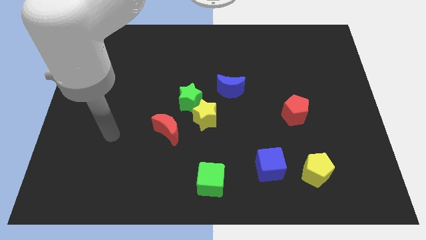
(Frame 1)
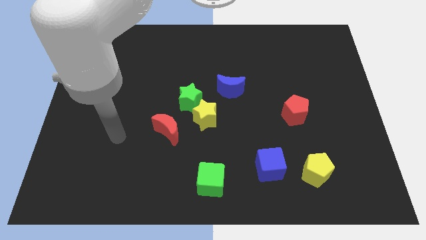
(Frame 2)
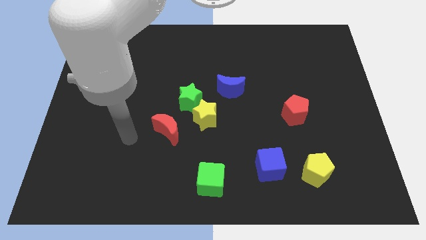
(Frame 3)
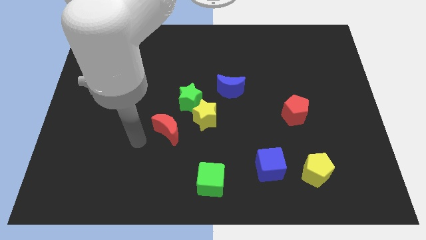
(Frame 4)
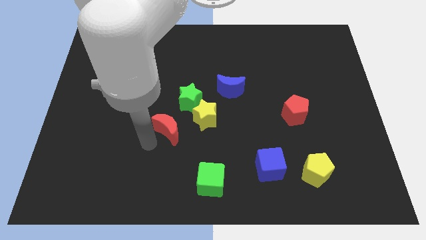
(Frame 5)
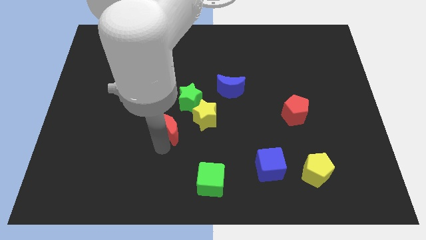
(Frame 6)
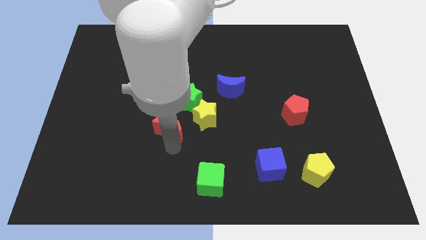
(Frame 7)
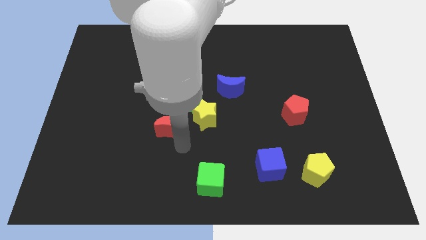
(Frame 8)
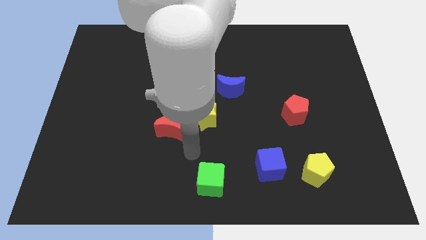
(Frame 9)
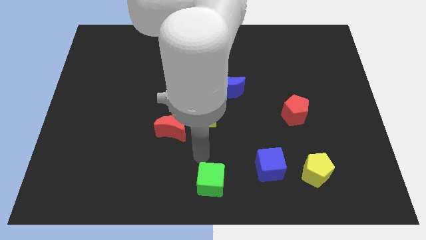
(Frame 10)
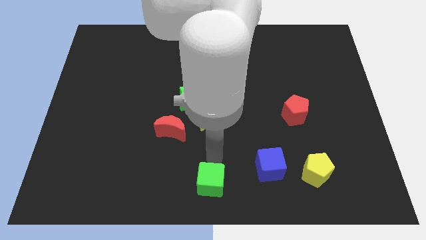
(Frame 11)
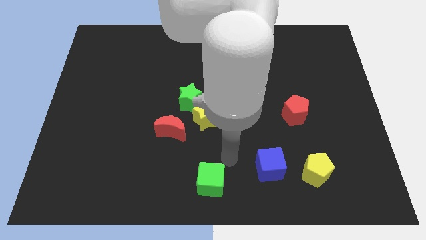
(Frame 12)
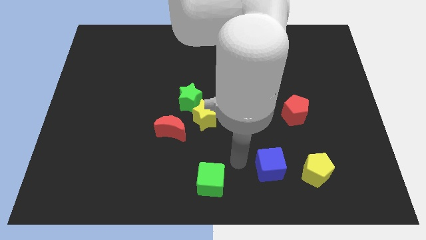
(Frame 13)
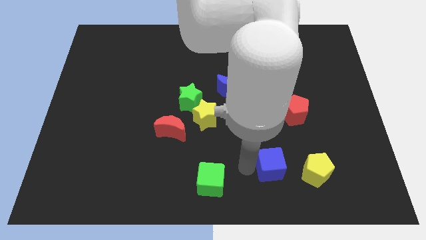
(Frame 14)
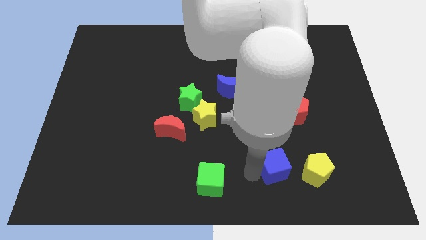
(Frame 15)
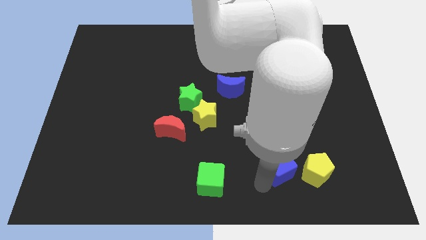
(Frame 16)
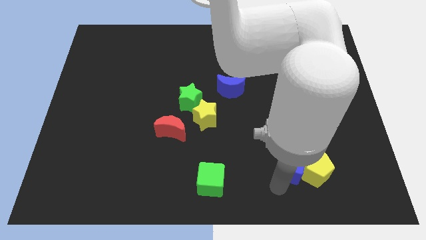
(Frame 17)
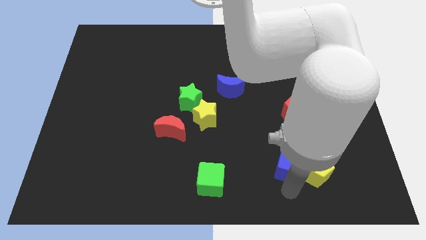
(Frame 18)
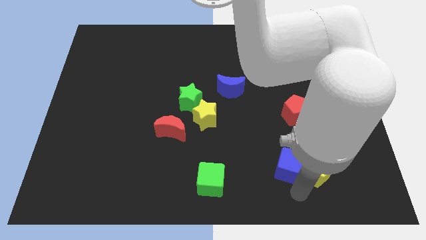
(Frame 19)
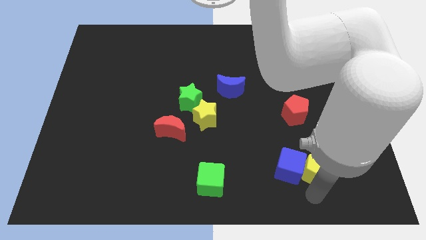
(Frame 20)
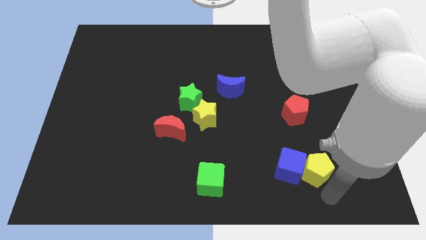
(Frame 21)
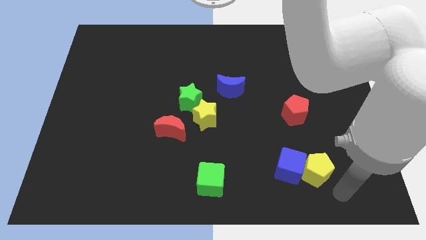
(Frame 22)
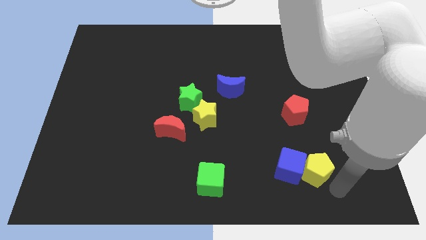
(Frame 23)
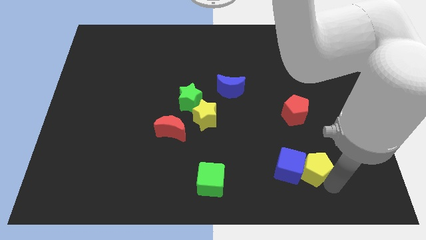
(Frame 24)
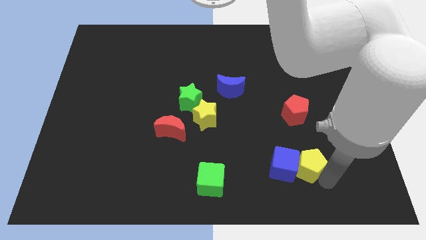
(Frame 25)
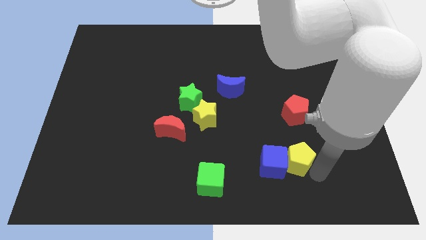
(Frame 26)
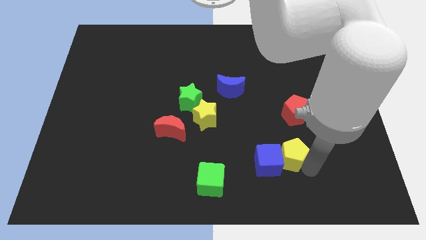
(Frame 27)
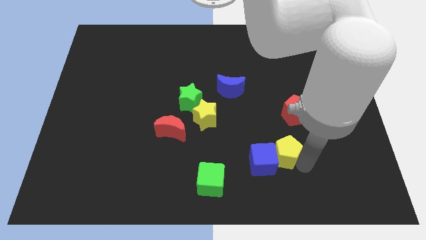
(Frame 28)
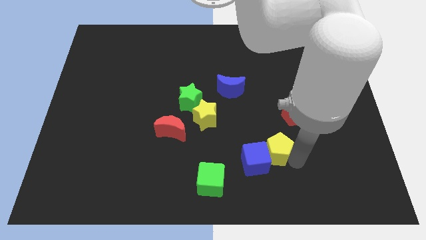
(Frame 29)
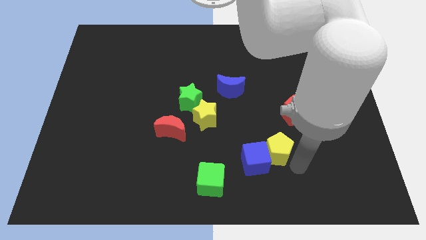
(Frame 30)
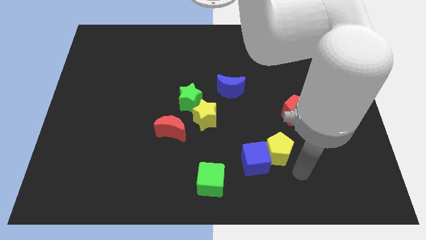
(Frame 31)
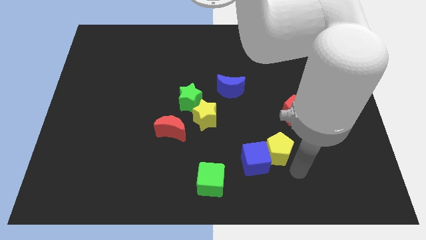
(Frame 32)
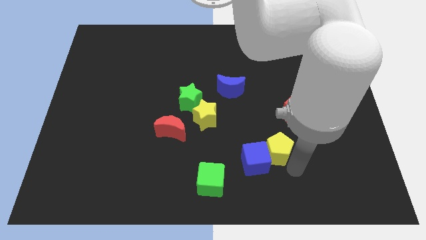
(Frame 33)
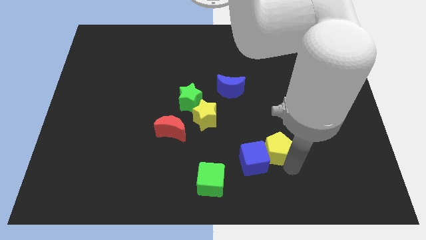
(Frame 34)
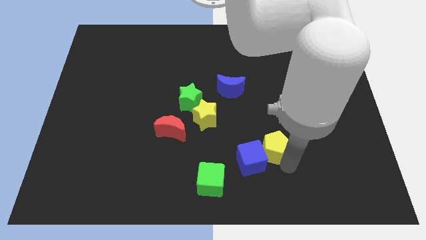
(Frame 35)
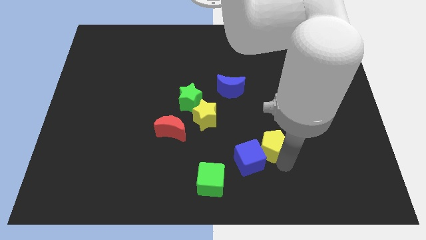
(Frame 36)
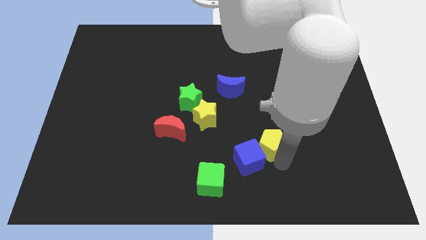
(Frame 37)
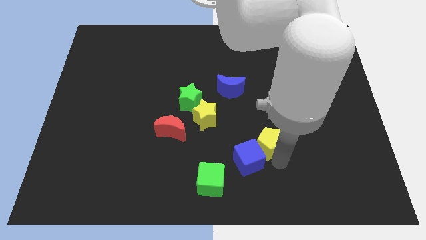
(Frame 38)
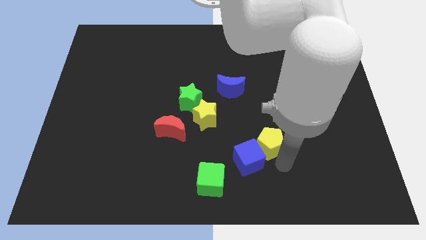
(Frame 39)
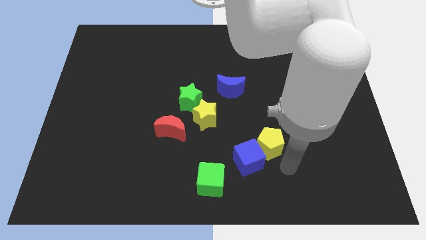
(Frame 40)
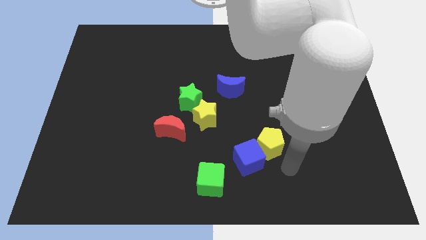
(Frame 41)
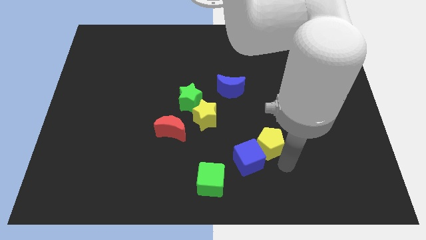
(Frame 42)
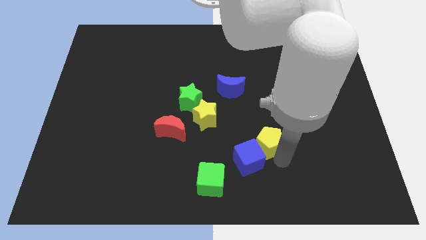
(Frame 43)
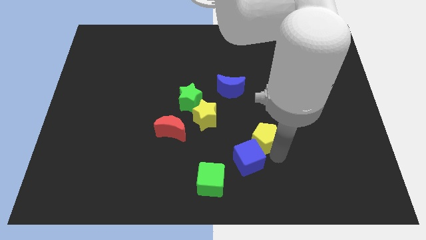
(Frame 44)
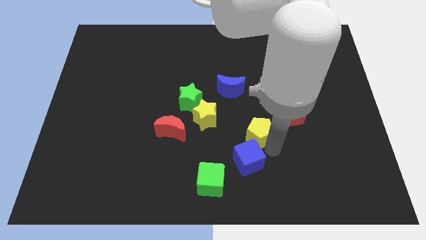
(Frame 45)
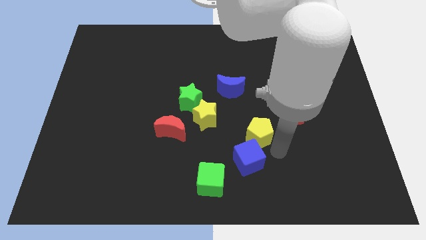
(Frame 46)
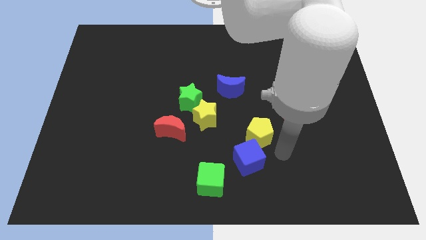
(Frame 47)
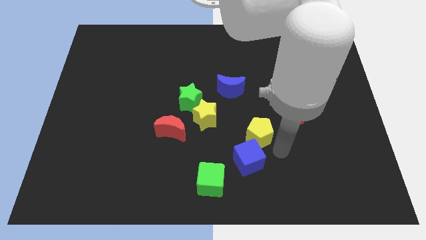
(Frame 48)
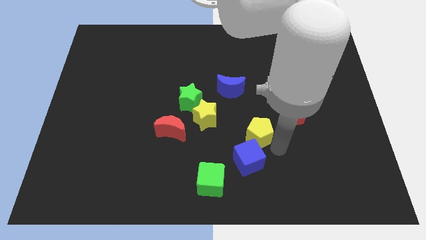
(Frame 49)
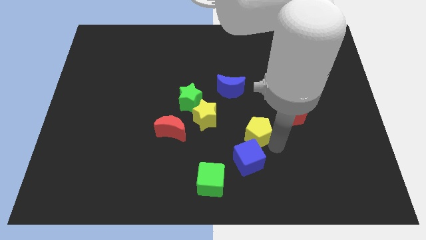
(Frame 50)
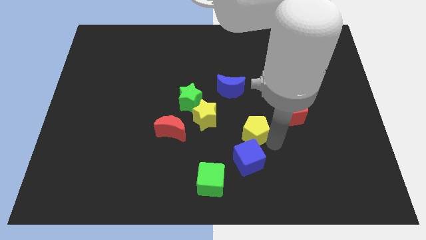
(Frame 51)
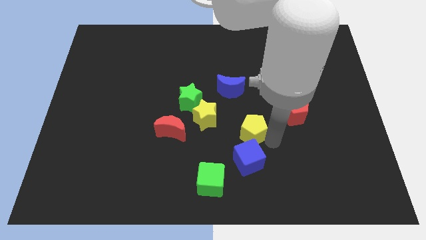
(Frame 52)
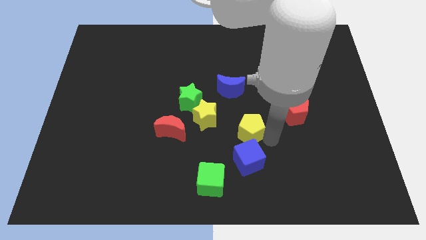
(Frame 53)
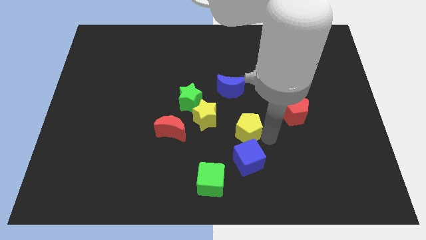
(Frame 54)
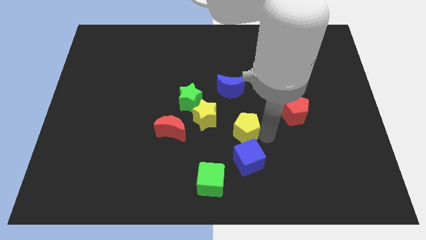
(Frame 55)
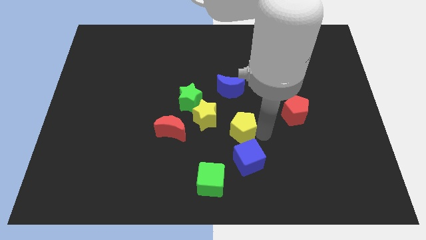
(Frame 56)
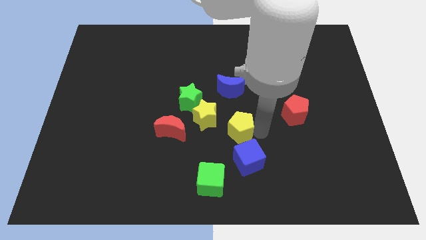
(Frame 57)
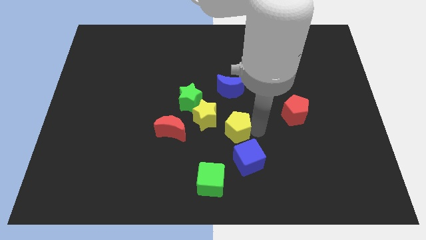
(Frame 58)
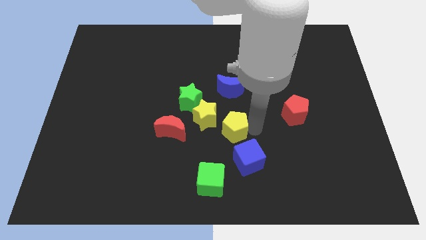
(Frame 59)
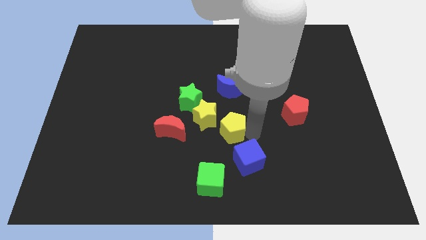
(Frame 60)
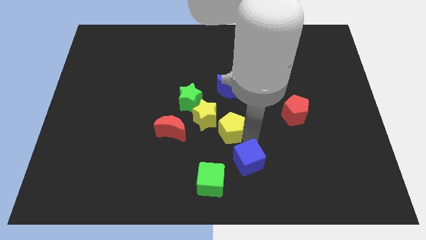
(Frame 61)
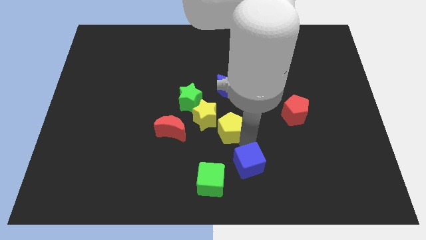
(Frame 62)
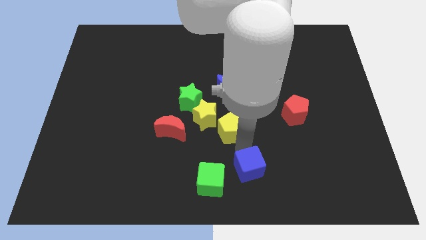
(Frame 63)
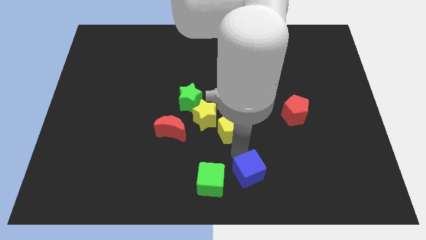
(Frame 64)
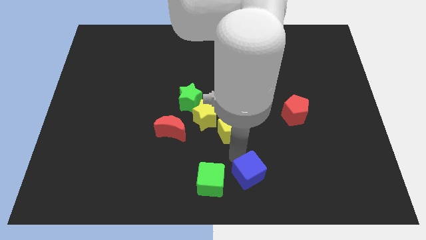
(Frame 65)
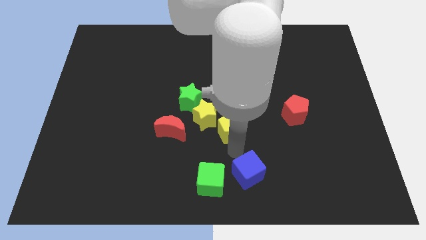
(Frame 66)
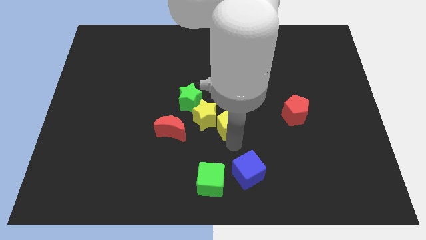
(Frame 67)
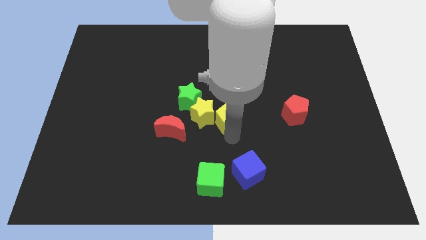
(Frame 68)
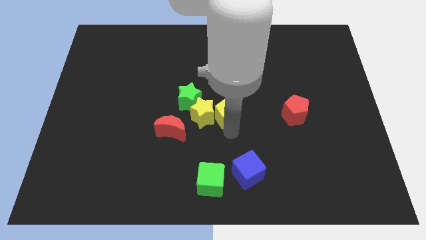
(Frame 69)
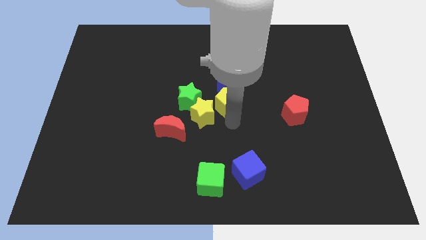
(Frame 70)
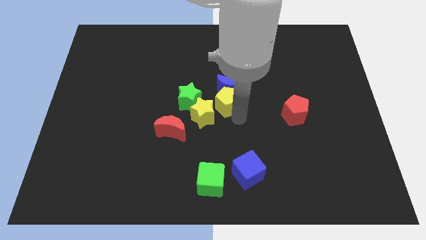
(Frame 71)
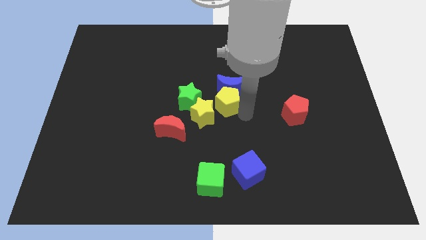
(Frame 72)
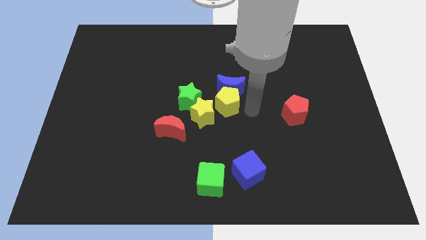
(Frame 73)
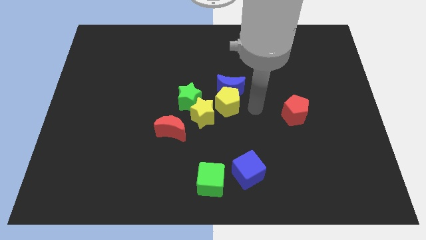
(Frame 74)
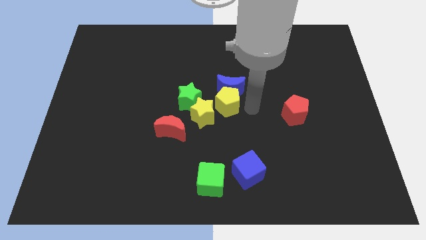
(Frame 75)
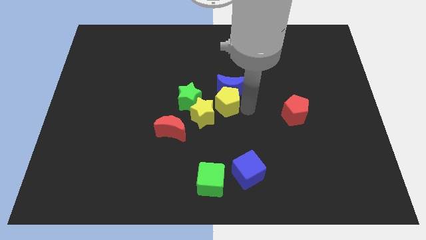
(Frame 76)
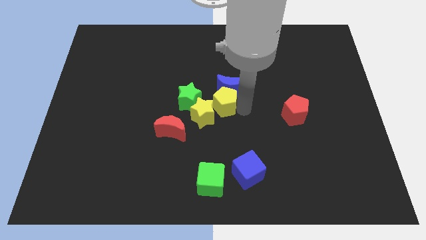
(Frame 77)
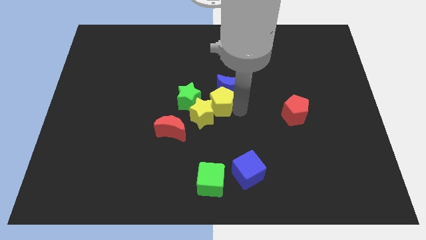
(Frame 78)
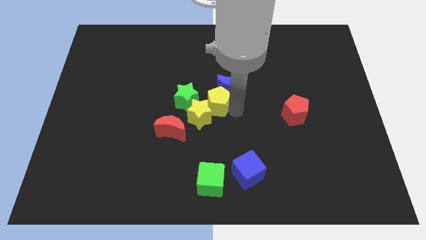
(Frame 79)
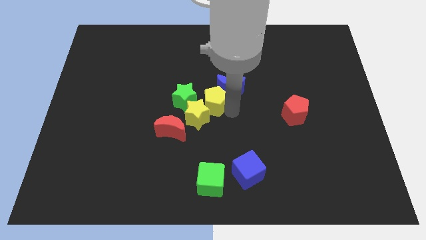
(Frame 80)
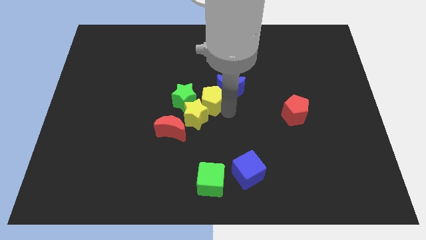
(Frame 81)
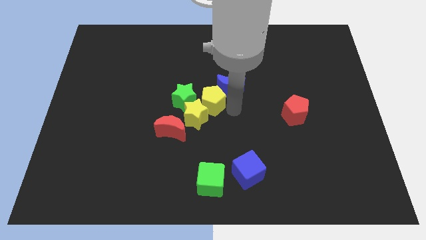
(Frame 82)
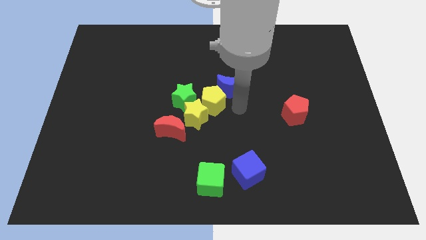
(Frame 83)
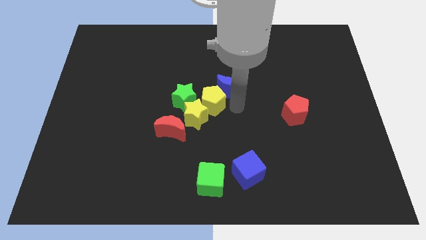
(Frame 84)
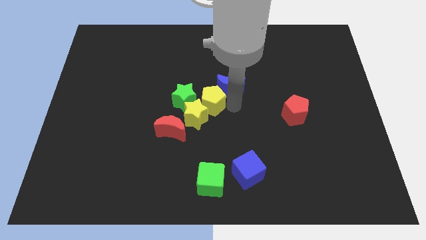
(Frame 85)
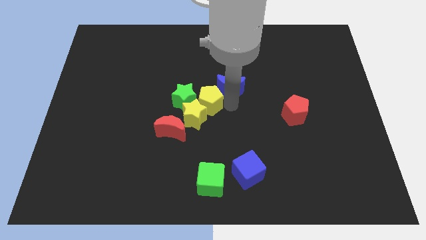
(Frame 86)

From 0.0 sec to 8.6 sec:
move the yellow pentagon towards the green star
